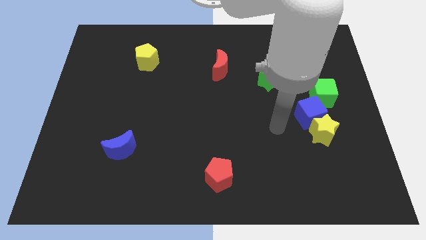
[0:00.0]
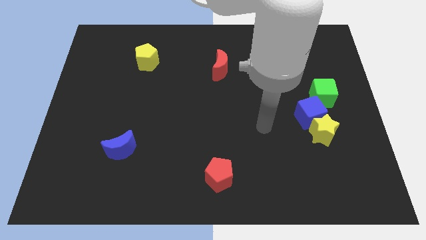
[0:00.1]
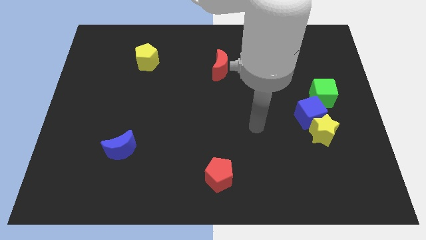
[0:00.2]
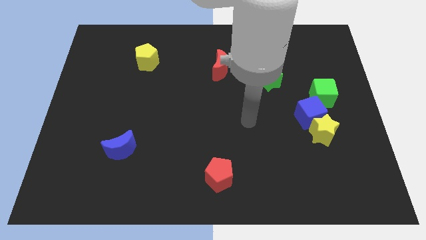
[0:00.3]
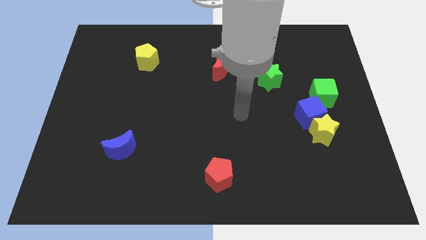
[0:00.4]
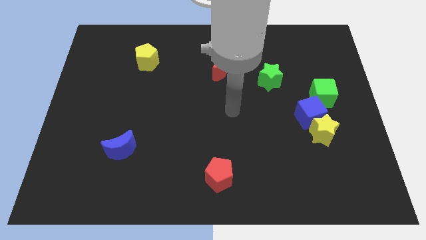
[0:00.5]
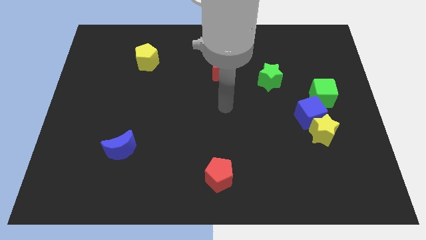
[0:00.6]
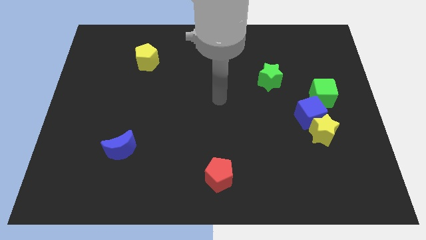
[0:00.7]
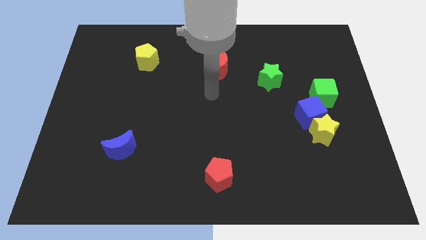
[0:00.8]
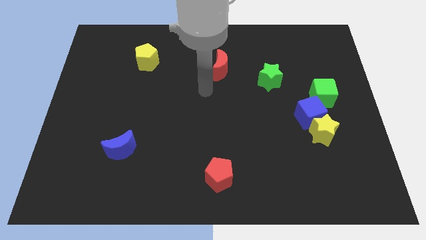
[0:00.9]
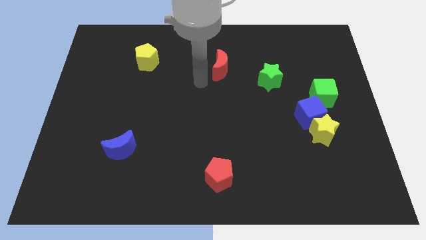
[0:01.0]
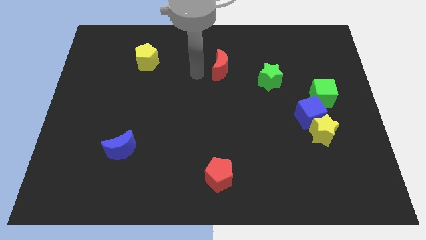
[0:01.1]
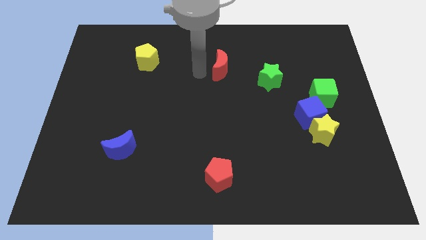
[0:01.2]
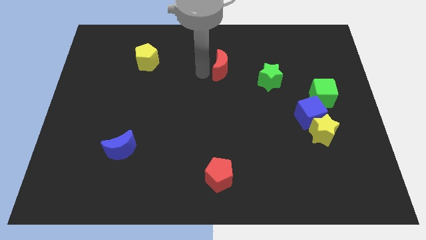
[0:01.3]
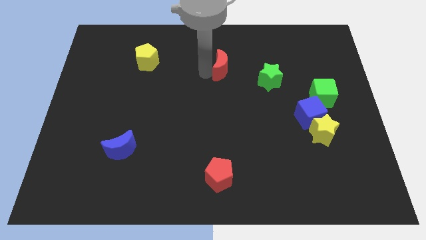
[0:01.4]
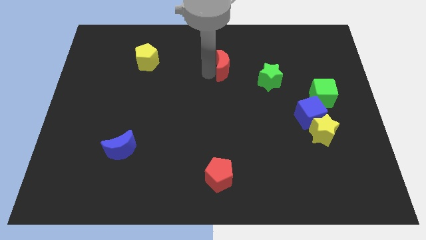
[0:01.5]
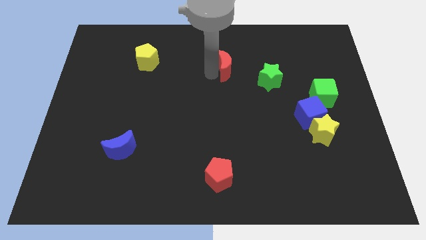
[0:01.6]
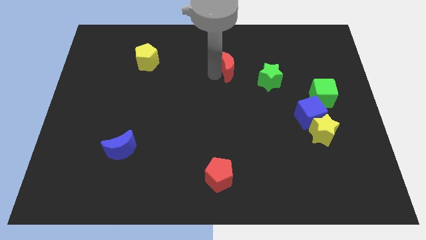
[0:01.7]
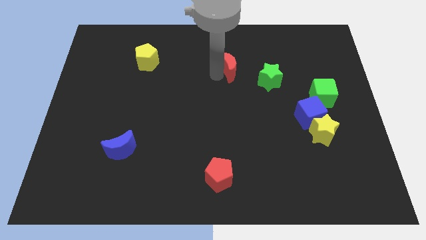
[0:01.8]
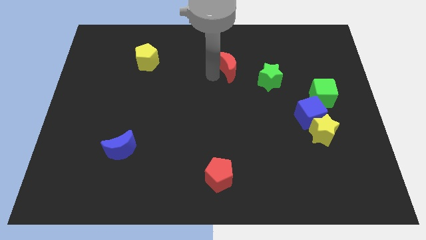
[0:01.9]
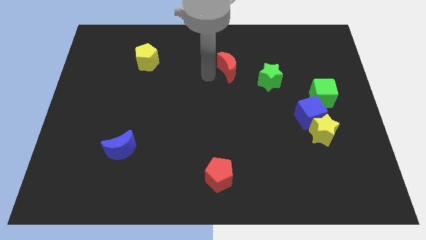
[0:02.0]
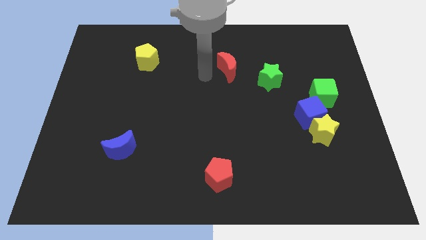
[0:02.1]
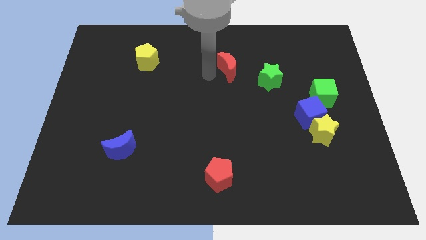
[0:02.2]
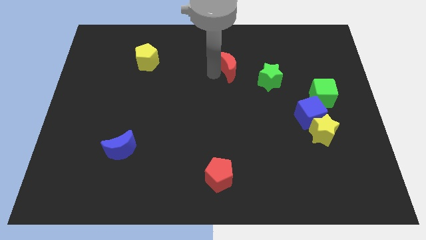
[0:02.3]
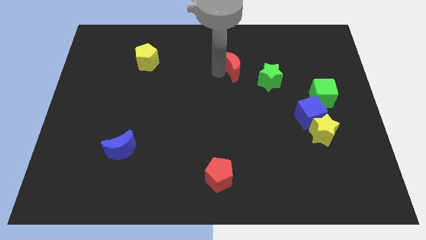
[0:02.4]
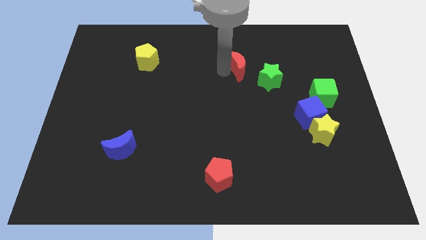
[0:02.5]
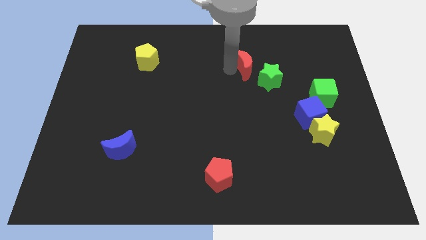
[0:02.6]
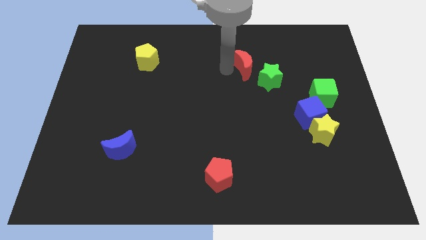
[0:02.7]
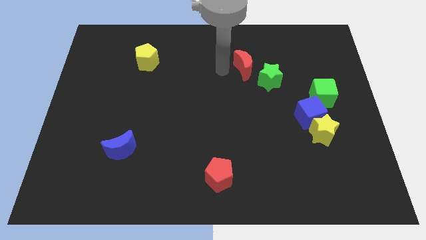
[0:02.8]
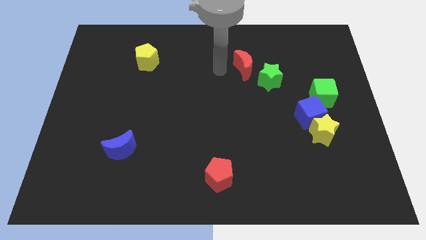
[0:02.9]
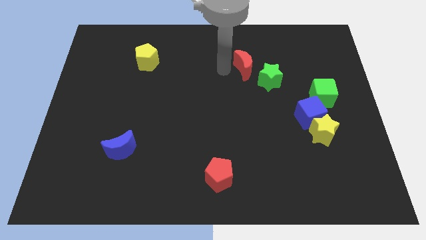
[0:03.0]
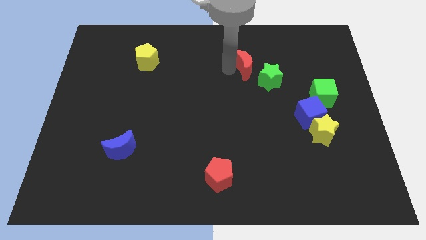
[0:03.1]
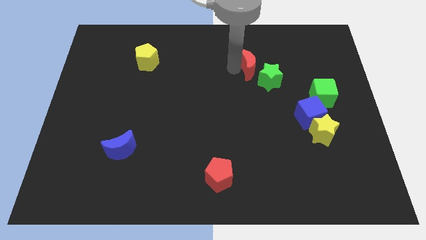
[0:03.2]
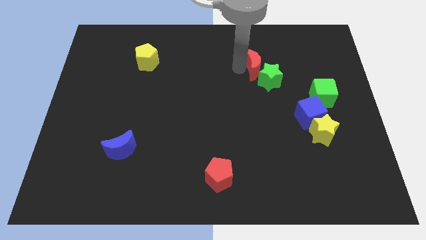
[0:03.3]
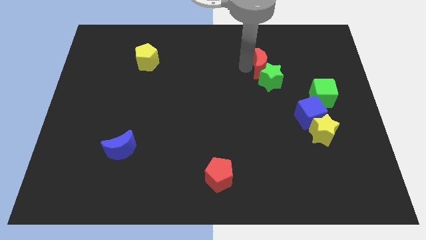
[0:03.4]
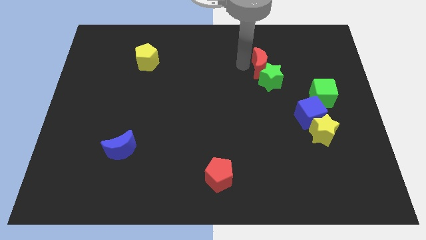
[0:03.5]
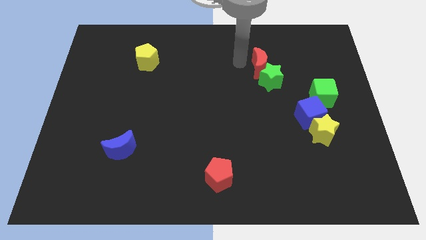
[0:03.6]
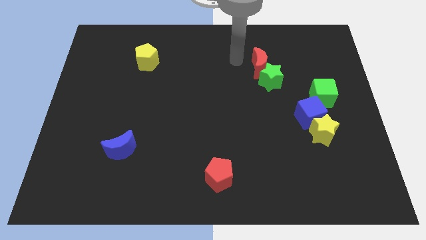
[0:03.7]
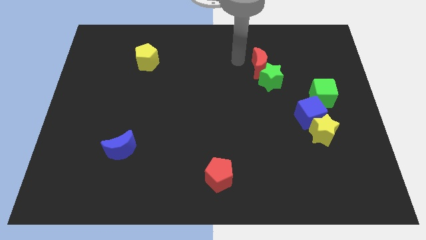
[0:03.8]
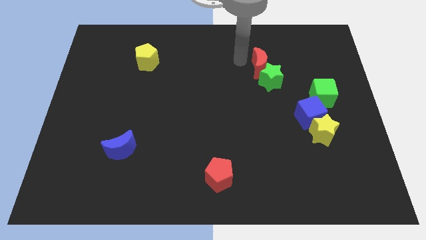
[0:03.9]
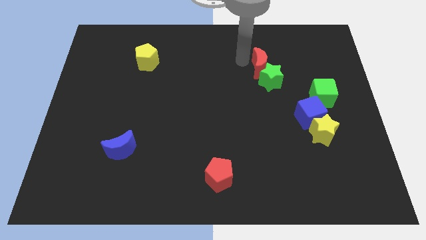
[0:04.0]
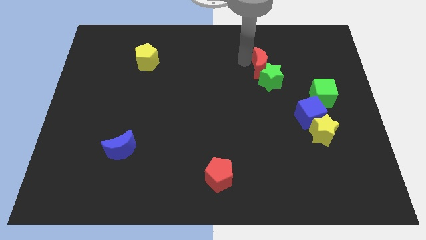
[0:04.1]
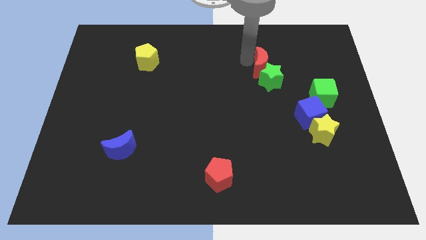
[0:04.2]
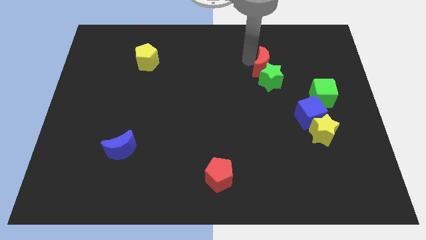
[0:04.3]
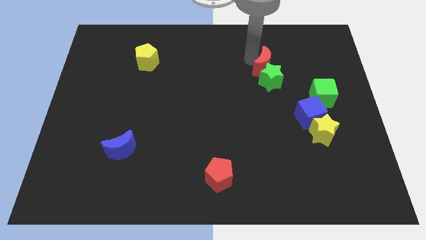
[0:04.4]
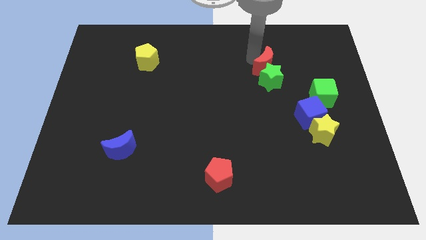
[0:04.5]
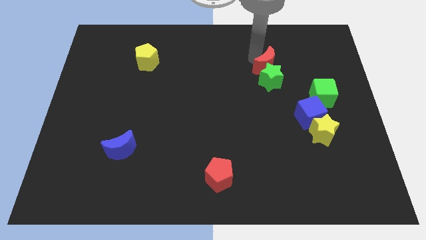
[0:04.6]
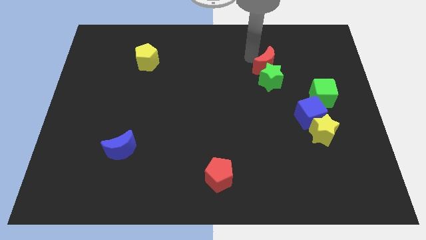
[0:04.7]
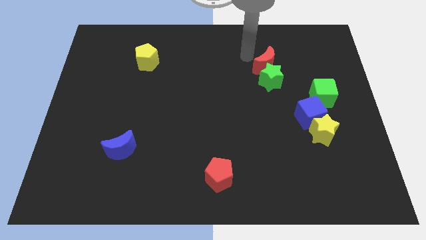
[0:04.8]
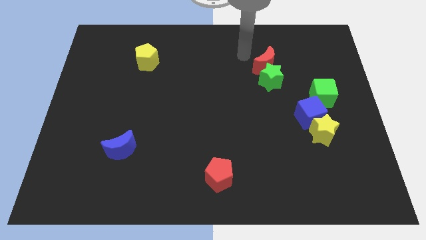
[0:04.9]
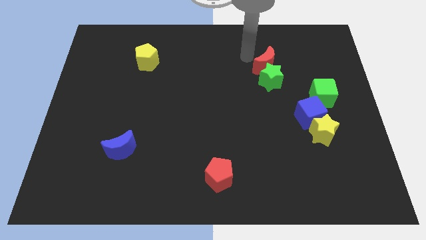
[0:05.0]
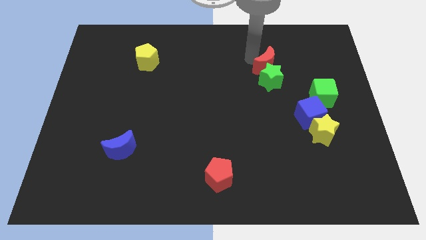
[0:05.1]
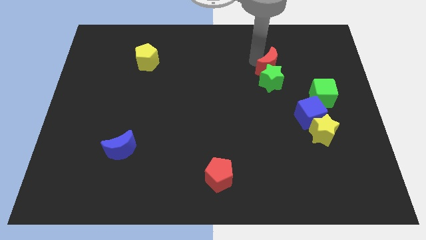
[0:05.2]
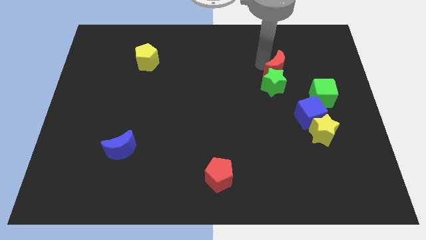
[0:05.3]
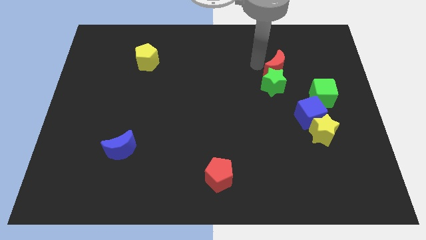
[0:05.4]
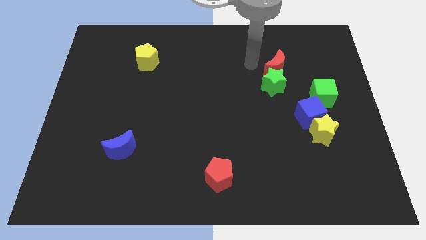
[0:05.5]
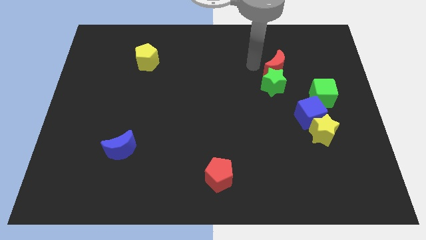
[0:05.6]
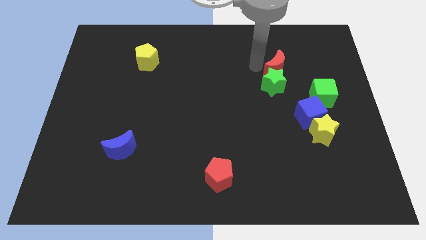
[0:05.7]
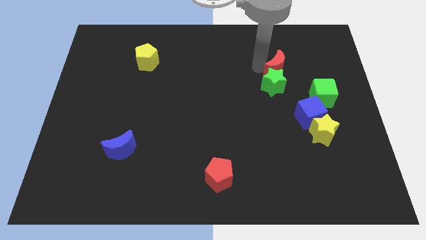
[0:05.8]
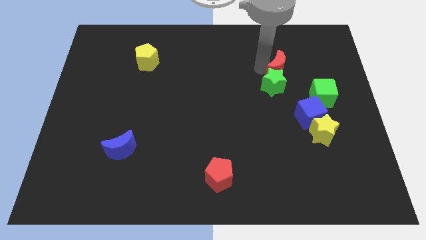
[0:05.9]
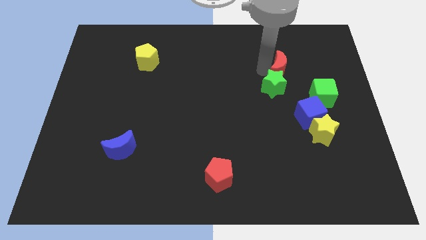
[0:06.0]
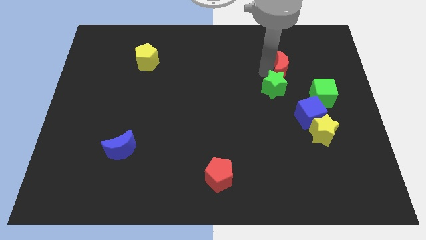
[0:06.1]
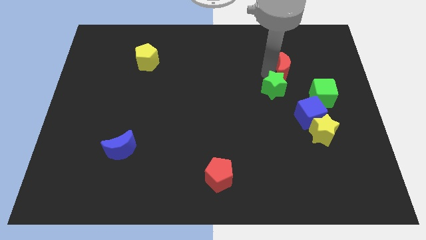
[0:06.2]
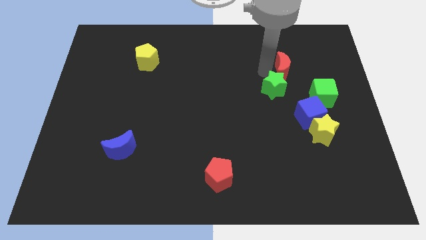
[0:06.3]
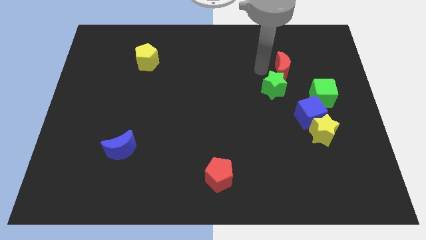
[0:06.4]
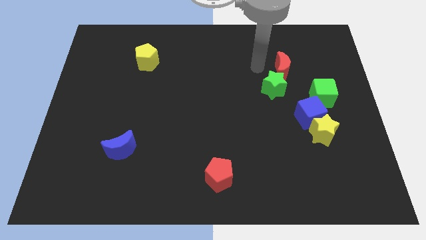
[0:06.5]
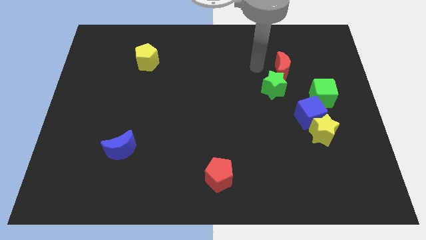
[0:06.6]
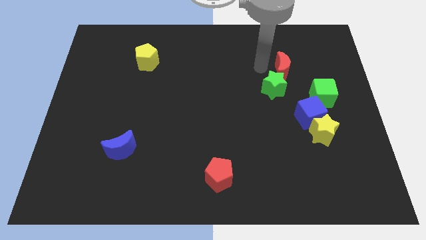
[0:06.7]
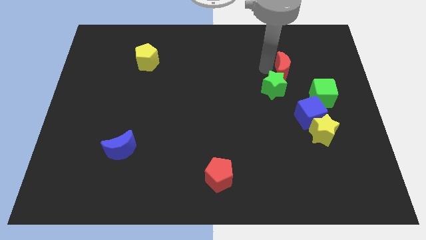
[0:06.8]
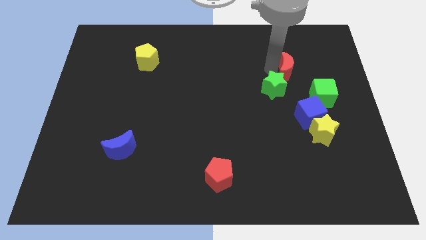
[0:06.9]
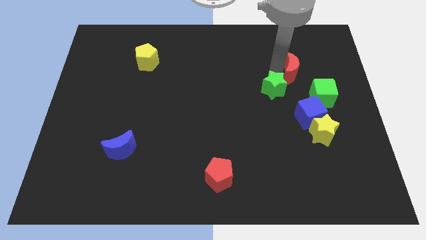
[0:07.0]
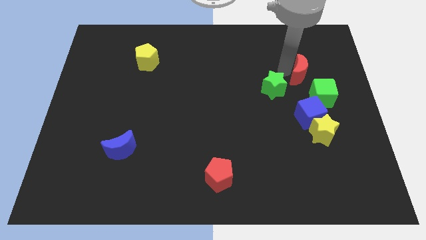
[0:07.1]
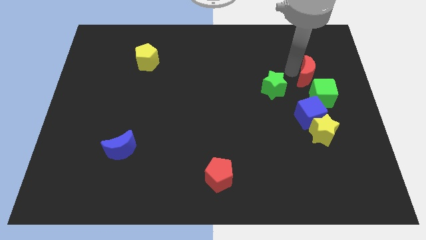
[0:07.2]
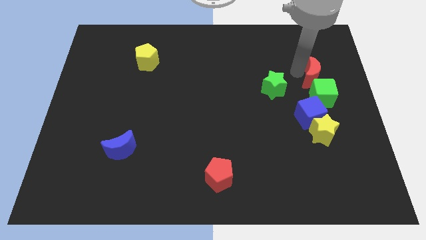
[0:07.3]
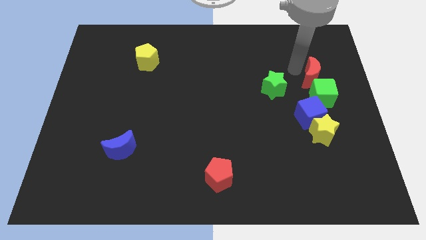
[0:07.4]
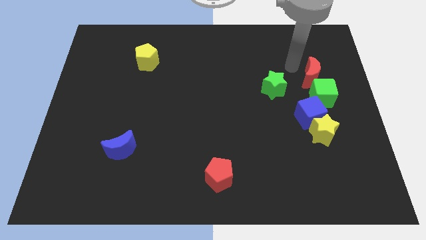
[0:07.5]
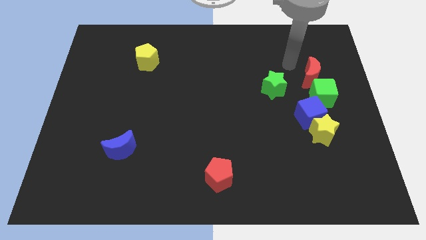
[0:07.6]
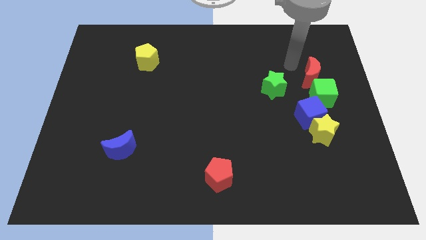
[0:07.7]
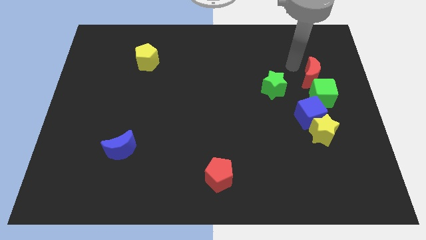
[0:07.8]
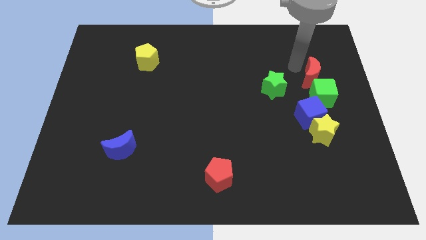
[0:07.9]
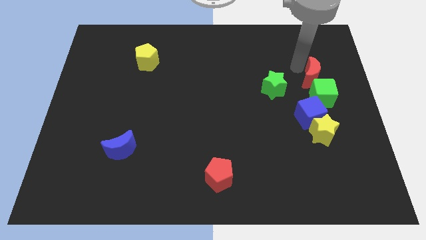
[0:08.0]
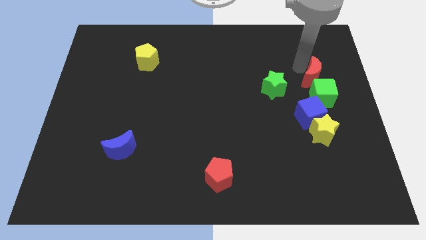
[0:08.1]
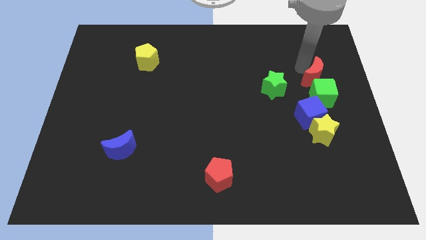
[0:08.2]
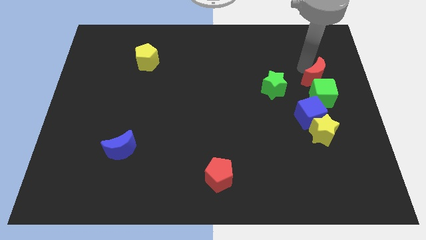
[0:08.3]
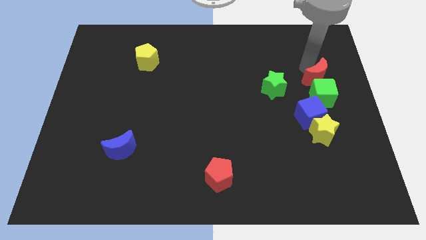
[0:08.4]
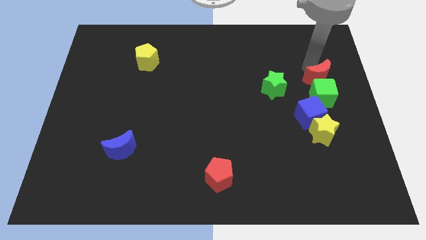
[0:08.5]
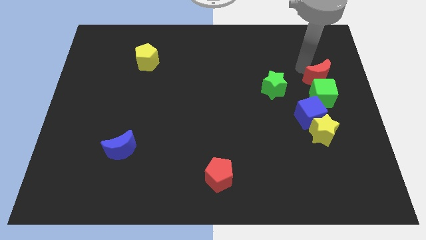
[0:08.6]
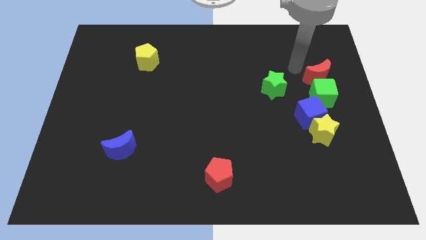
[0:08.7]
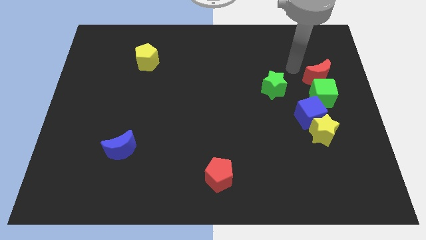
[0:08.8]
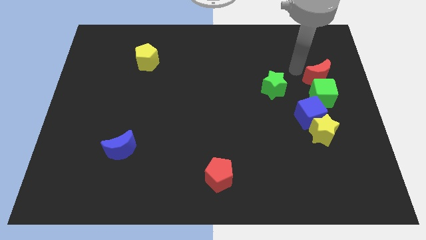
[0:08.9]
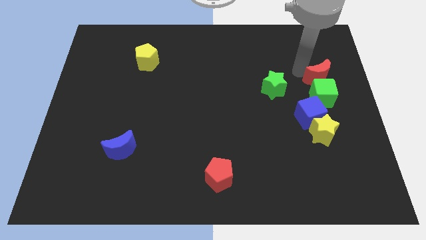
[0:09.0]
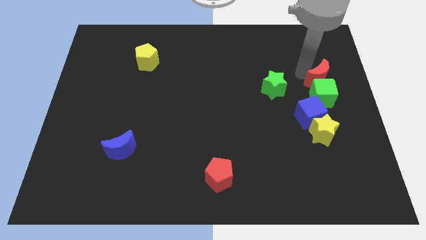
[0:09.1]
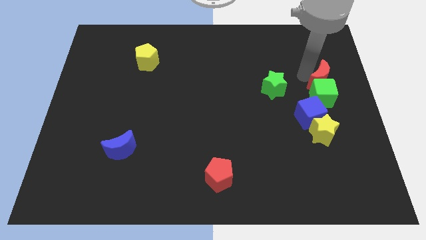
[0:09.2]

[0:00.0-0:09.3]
slide the red moon to the right side
